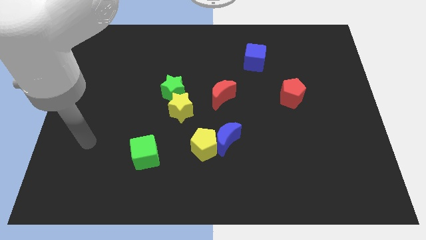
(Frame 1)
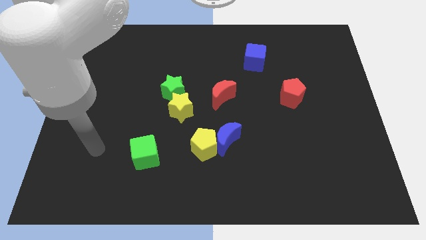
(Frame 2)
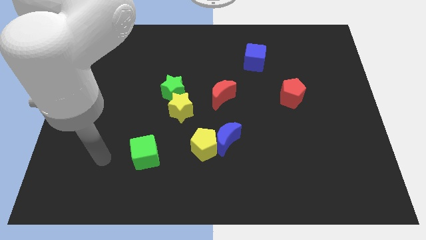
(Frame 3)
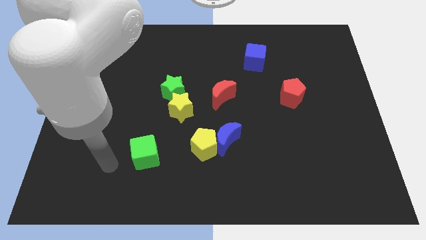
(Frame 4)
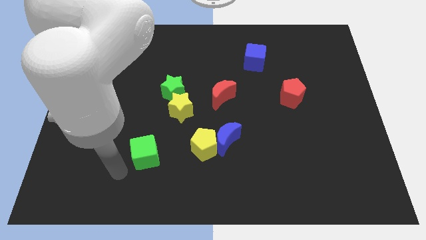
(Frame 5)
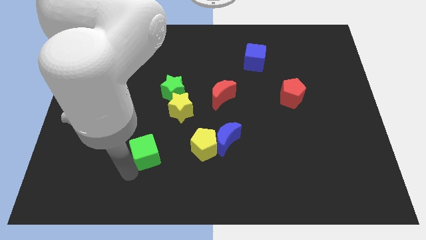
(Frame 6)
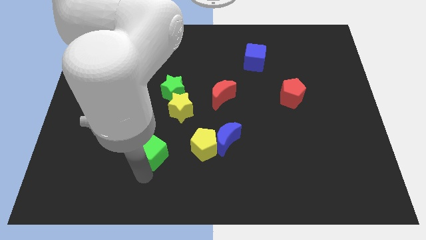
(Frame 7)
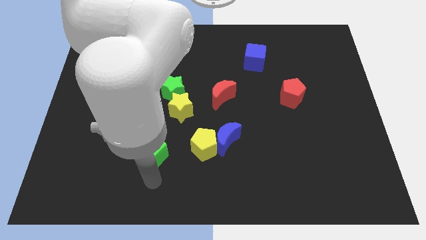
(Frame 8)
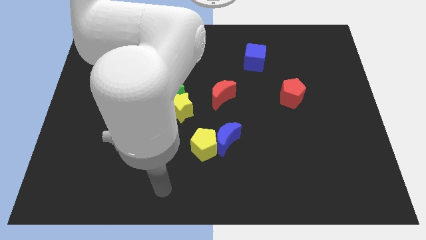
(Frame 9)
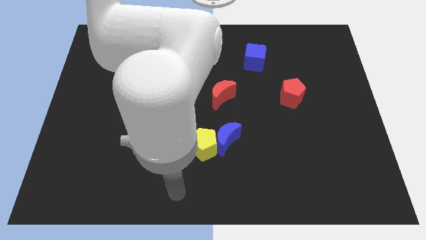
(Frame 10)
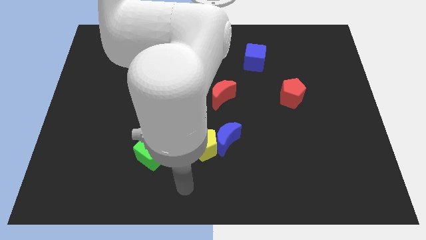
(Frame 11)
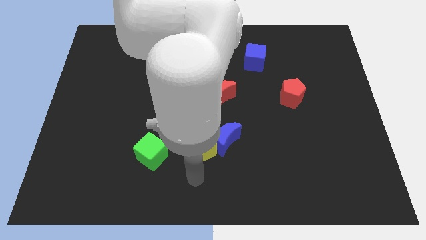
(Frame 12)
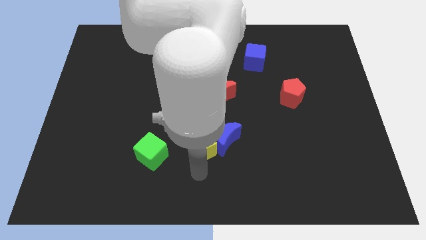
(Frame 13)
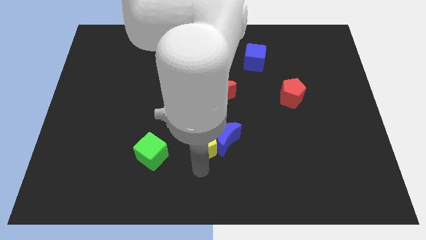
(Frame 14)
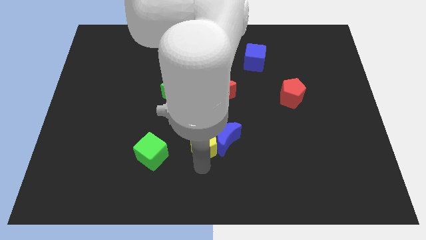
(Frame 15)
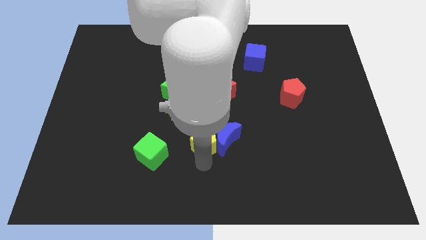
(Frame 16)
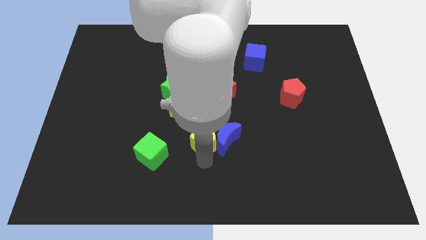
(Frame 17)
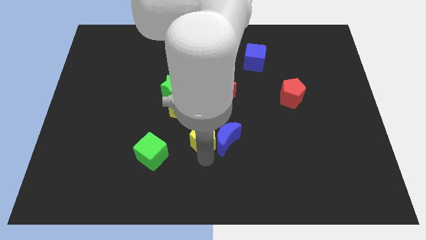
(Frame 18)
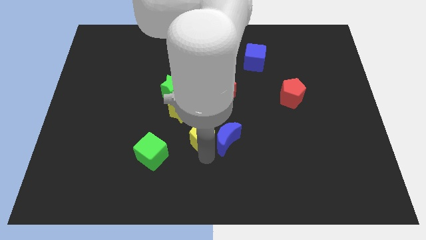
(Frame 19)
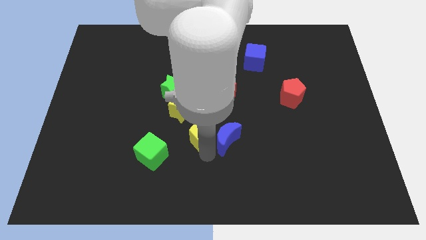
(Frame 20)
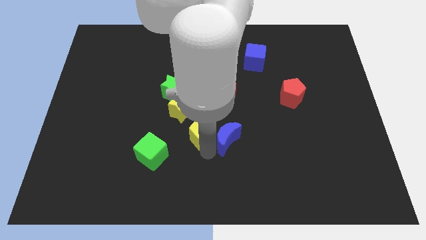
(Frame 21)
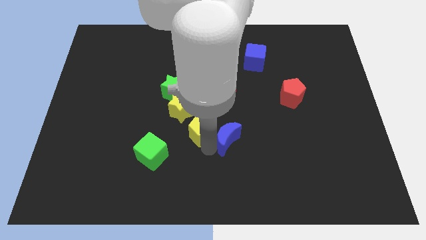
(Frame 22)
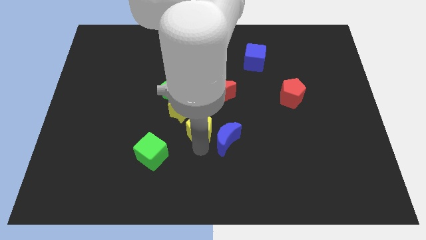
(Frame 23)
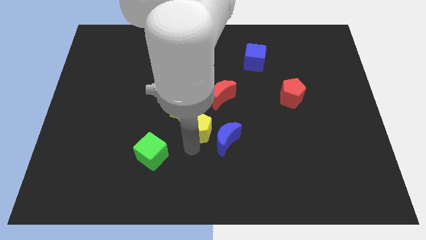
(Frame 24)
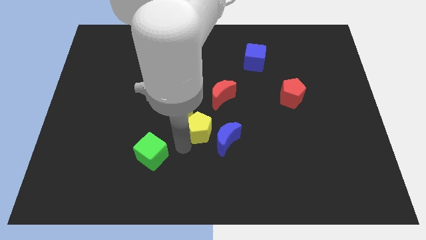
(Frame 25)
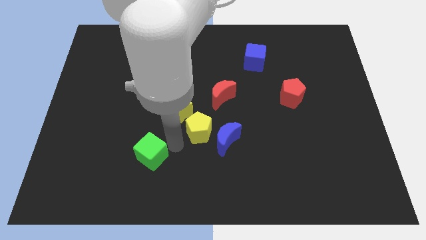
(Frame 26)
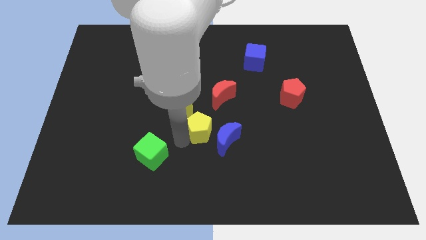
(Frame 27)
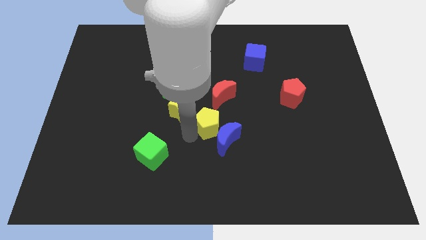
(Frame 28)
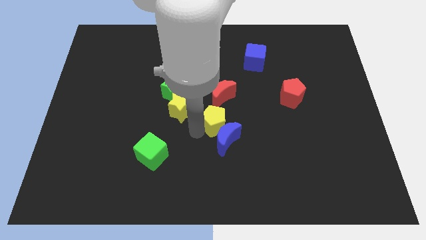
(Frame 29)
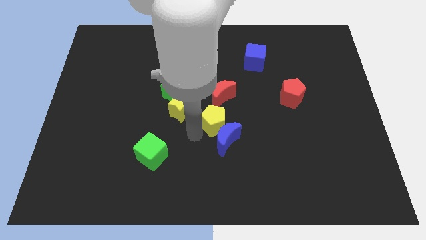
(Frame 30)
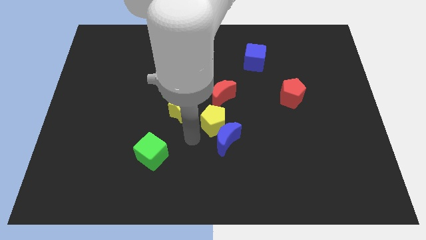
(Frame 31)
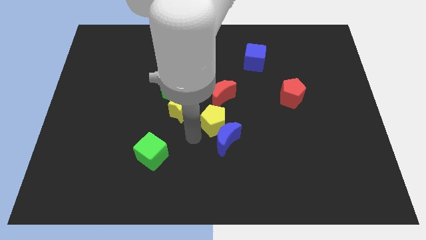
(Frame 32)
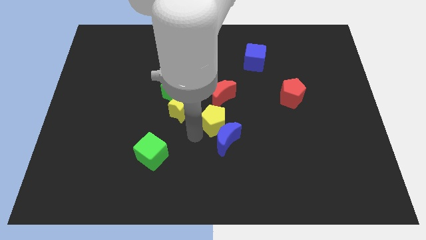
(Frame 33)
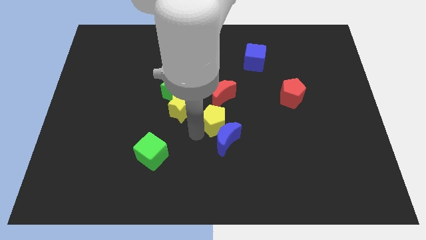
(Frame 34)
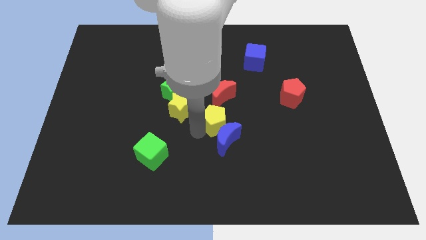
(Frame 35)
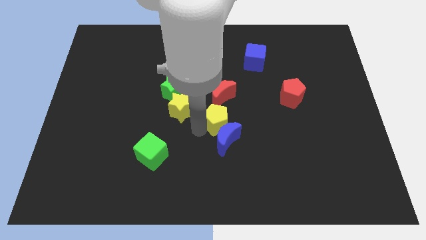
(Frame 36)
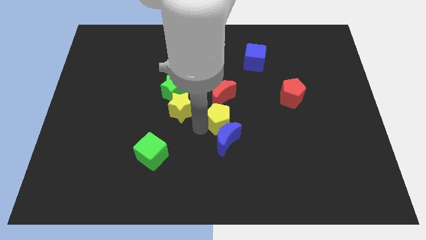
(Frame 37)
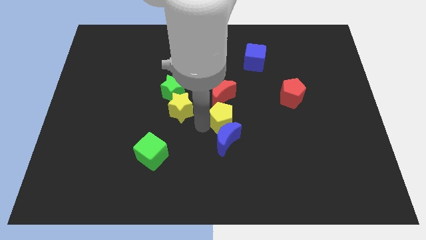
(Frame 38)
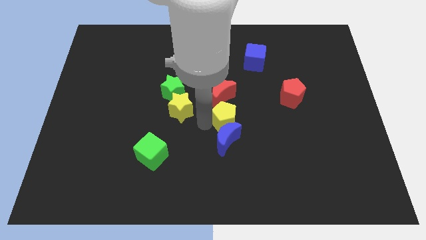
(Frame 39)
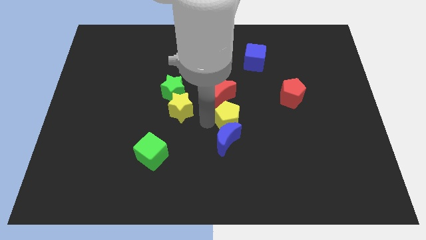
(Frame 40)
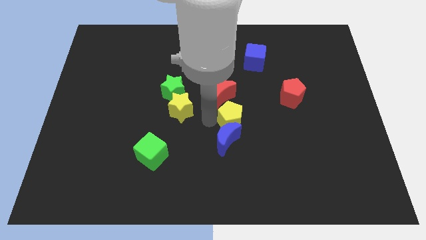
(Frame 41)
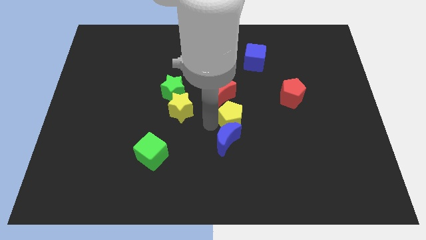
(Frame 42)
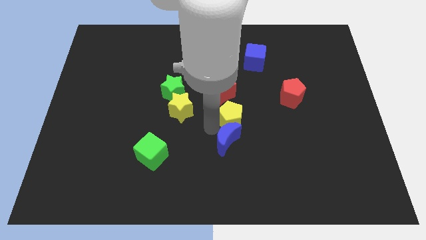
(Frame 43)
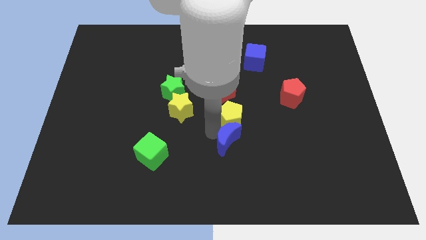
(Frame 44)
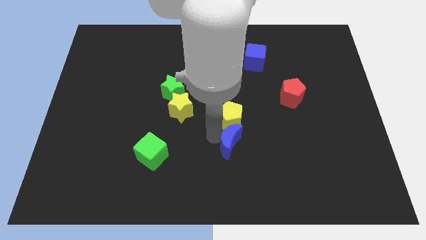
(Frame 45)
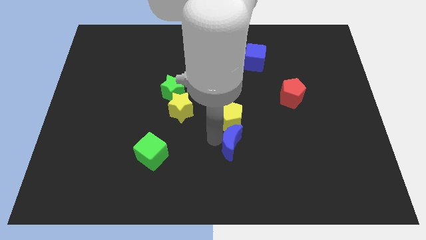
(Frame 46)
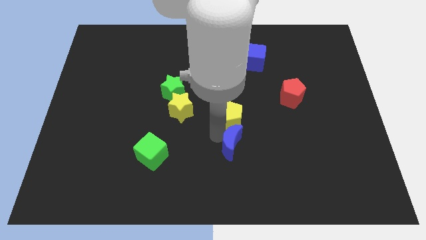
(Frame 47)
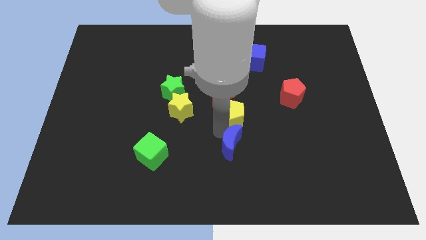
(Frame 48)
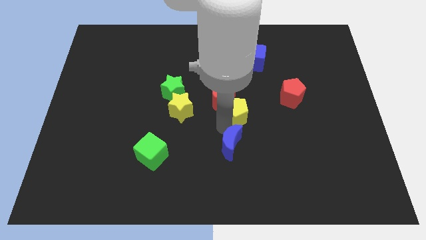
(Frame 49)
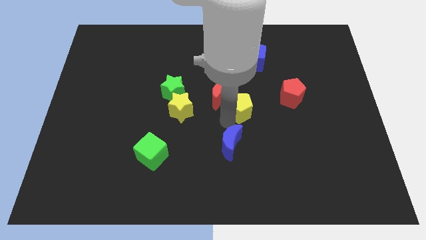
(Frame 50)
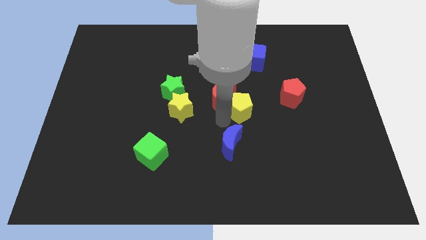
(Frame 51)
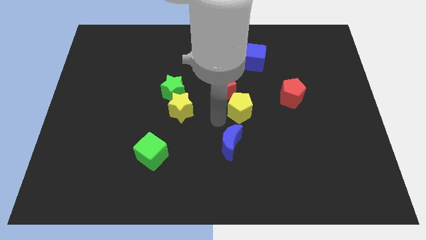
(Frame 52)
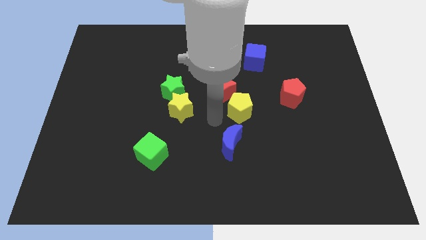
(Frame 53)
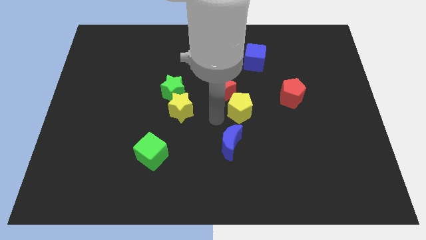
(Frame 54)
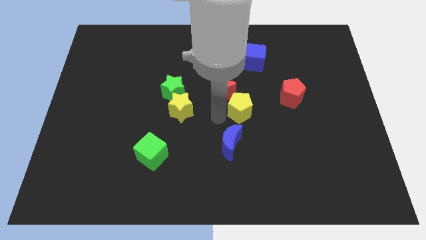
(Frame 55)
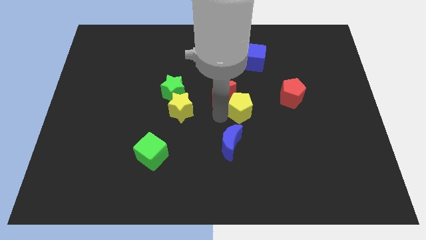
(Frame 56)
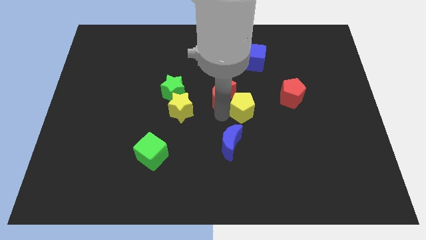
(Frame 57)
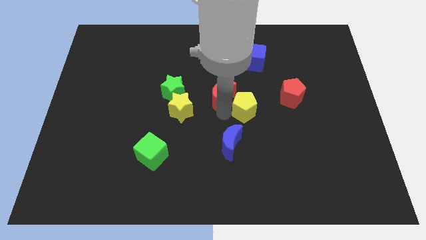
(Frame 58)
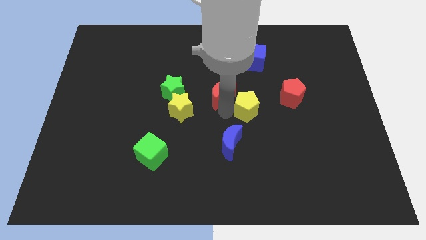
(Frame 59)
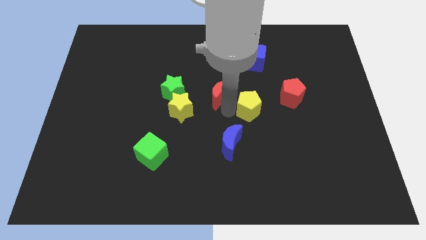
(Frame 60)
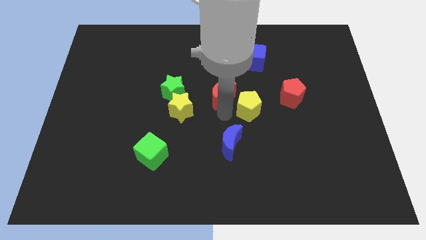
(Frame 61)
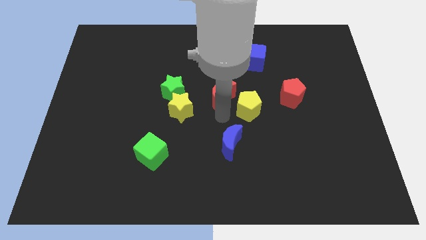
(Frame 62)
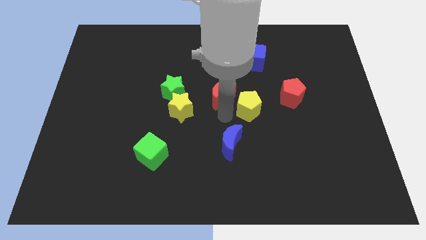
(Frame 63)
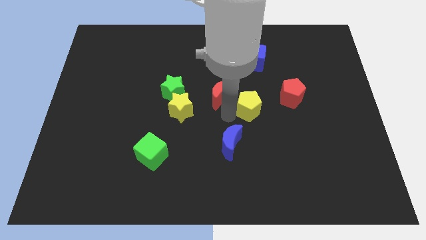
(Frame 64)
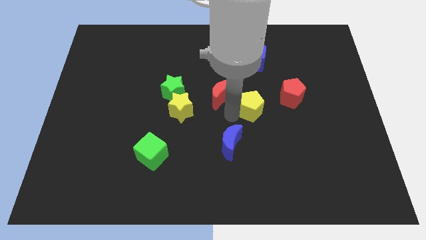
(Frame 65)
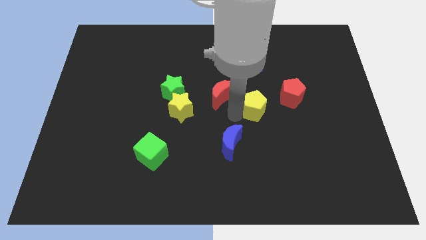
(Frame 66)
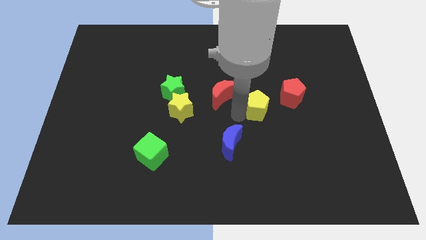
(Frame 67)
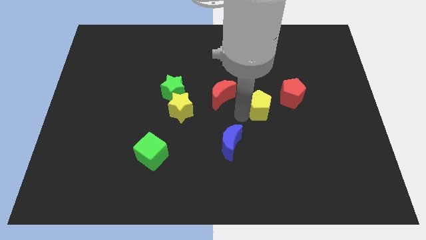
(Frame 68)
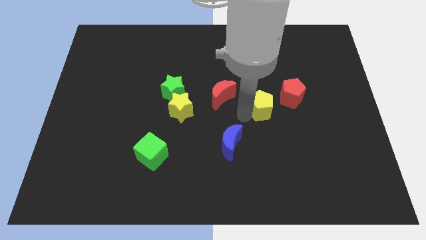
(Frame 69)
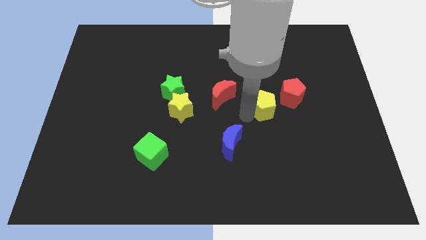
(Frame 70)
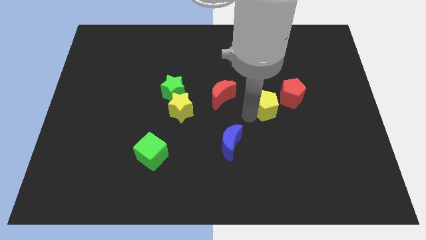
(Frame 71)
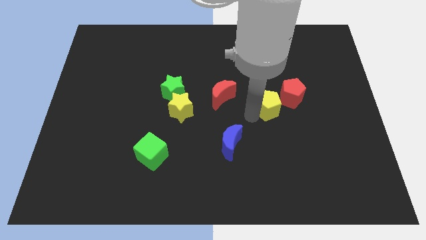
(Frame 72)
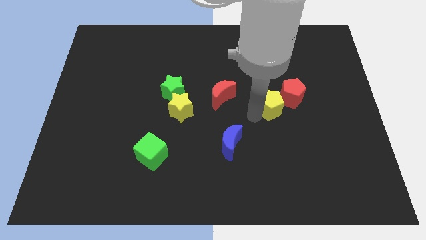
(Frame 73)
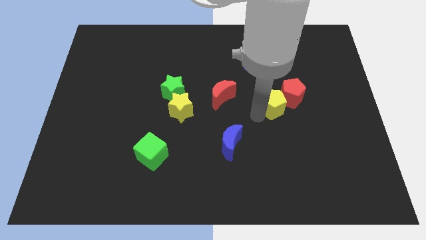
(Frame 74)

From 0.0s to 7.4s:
move the yellow pentagon towards the red pentagon
